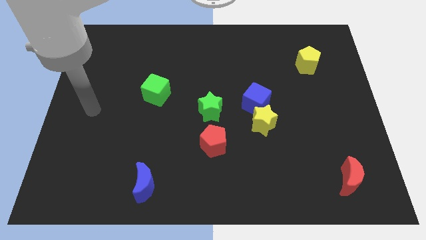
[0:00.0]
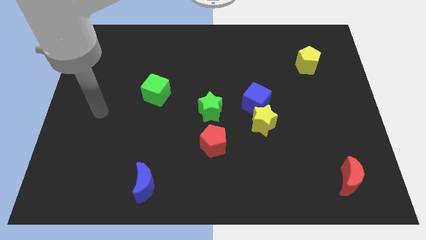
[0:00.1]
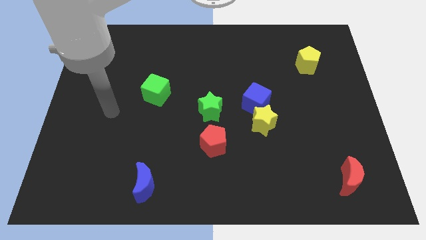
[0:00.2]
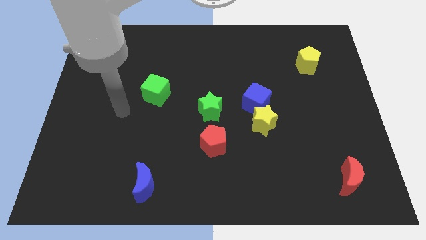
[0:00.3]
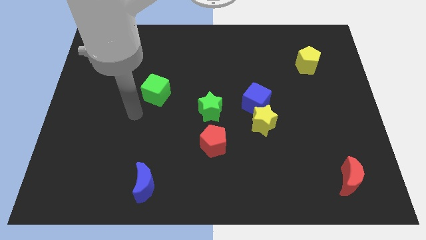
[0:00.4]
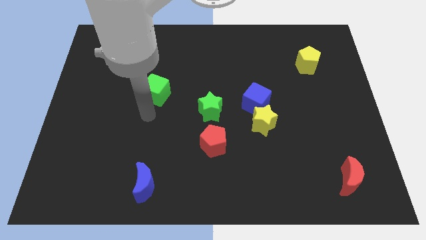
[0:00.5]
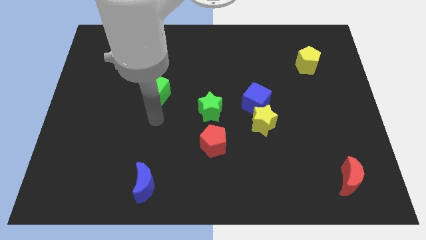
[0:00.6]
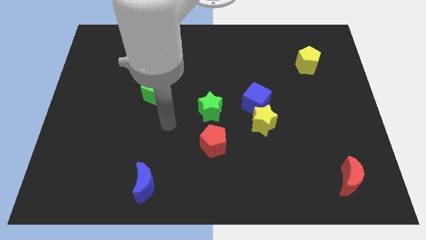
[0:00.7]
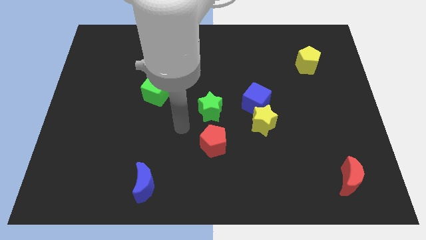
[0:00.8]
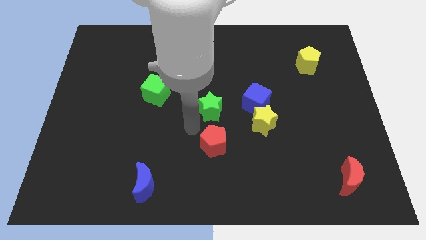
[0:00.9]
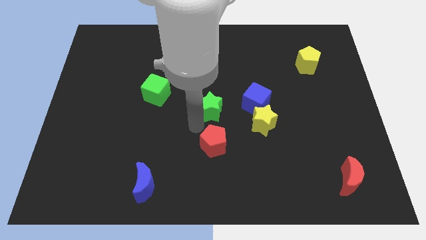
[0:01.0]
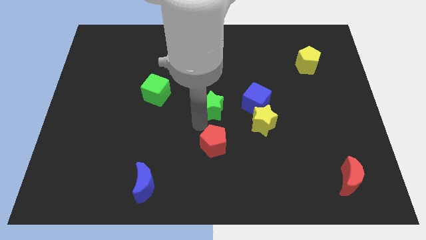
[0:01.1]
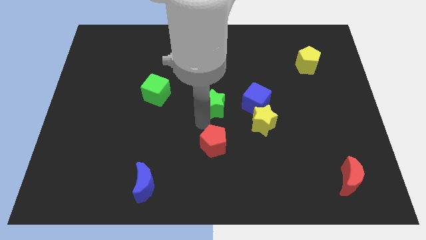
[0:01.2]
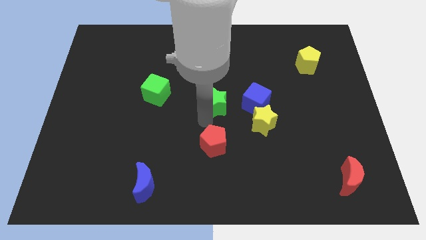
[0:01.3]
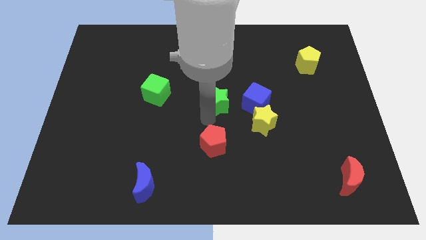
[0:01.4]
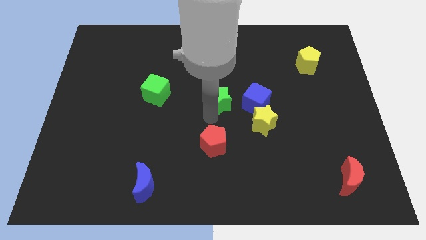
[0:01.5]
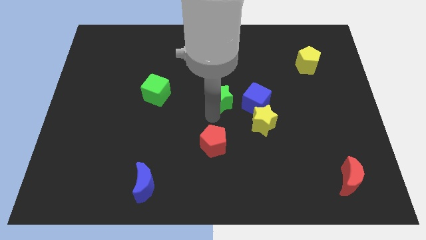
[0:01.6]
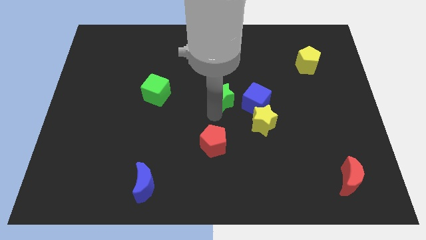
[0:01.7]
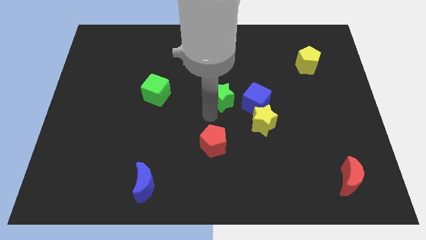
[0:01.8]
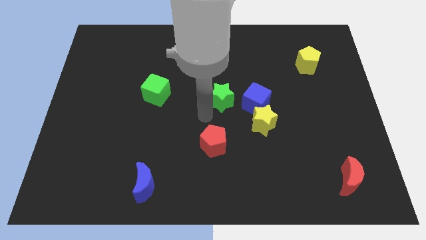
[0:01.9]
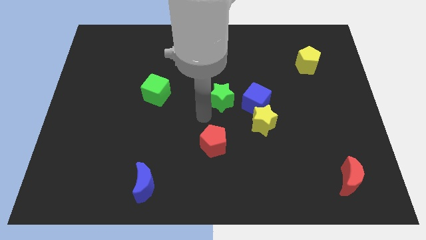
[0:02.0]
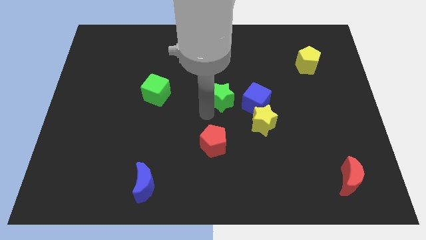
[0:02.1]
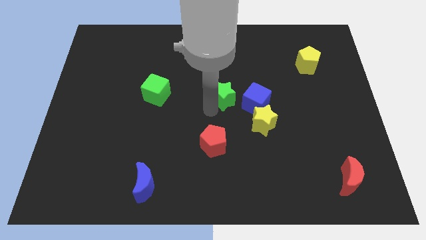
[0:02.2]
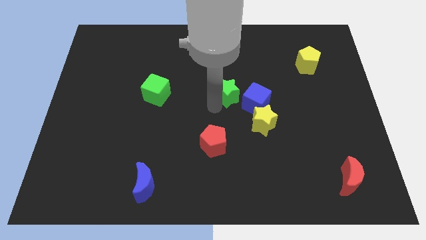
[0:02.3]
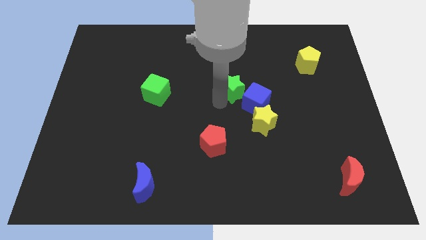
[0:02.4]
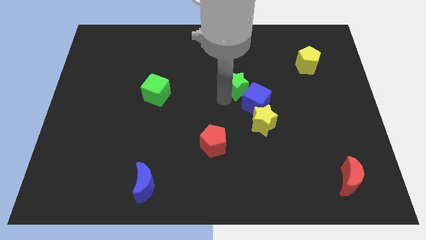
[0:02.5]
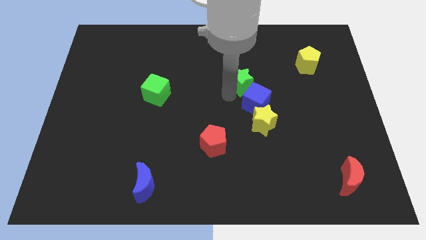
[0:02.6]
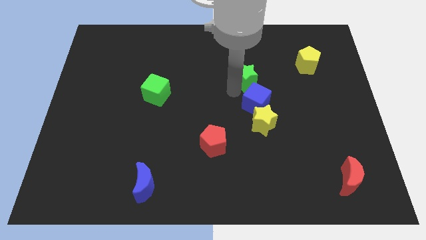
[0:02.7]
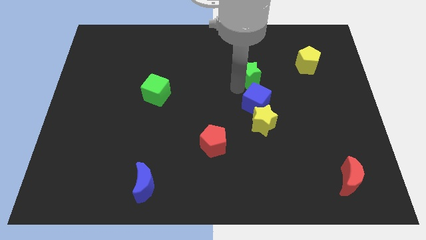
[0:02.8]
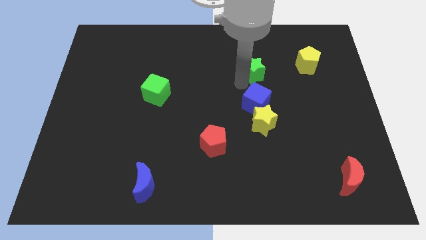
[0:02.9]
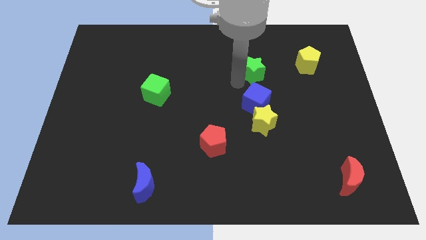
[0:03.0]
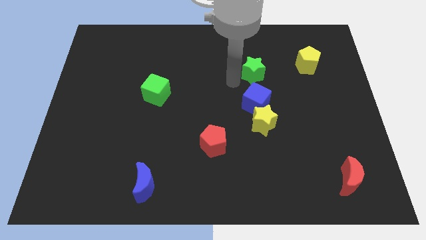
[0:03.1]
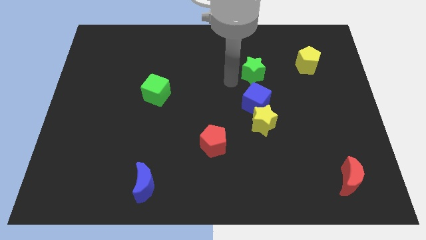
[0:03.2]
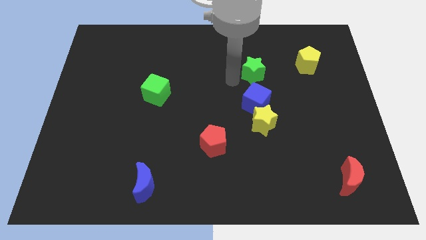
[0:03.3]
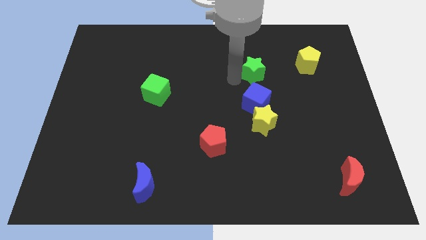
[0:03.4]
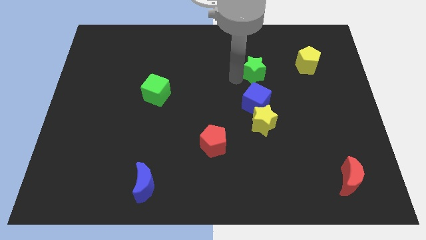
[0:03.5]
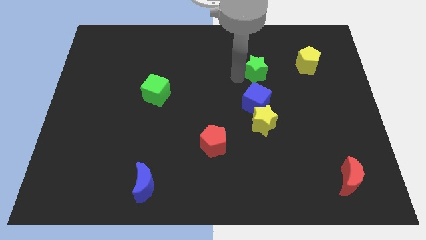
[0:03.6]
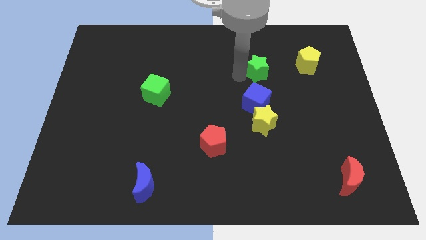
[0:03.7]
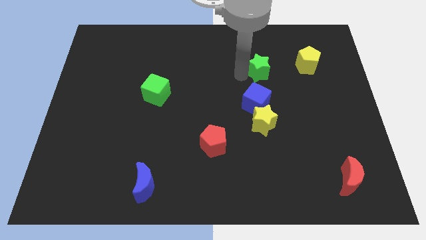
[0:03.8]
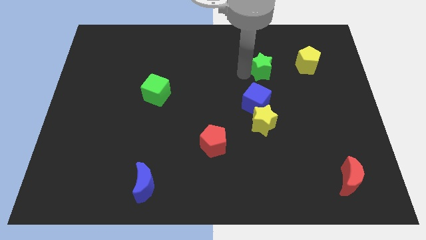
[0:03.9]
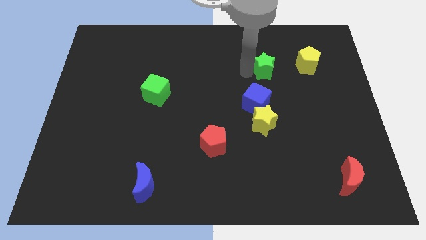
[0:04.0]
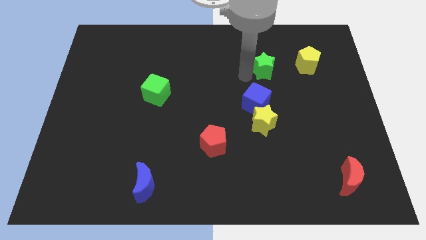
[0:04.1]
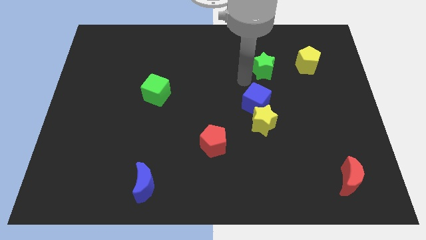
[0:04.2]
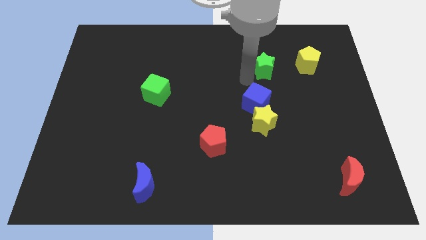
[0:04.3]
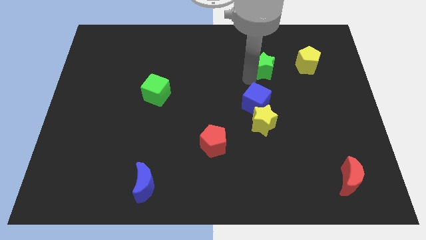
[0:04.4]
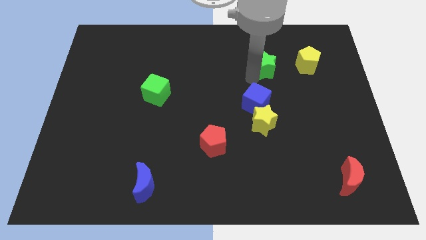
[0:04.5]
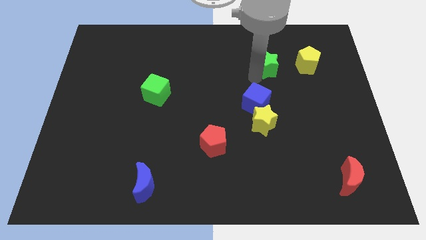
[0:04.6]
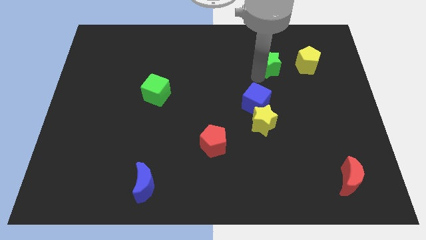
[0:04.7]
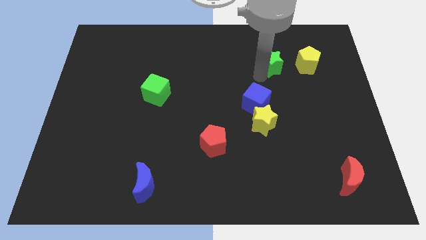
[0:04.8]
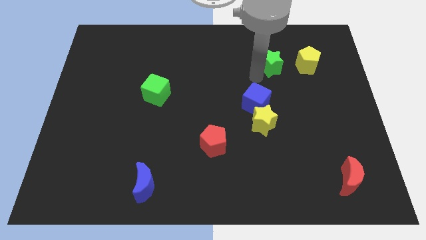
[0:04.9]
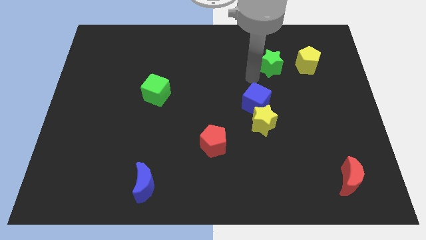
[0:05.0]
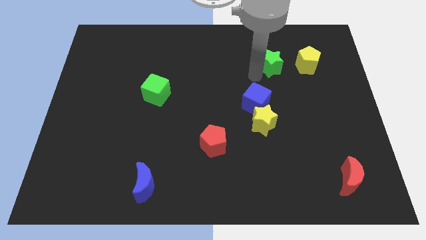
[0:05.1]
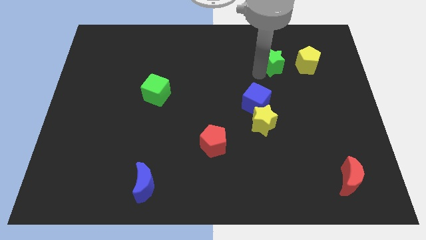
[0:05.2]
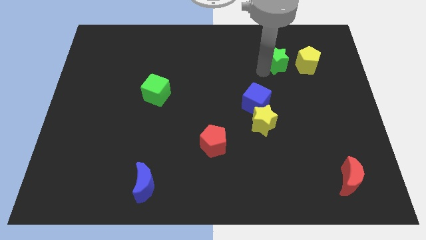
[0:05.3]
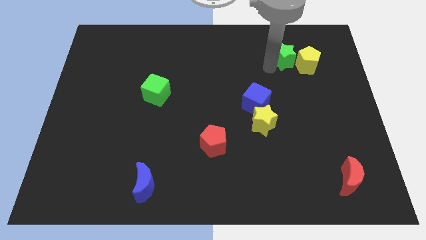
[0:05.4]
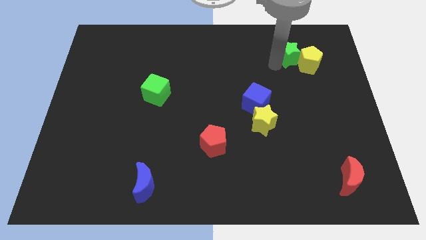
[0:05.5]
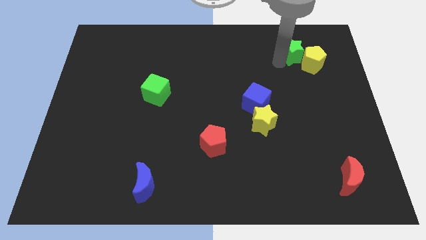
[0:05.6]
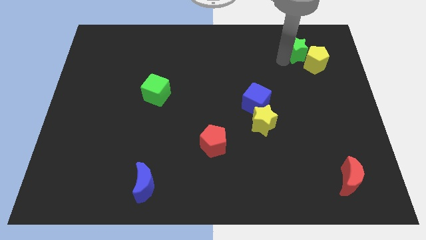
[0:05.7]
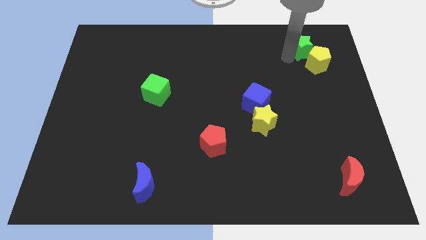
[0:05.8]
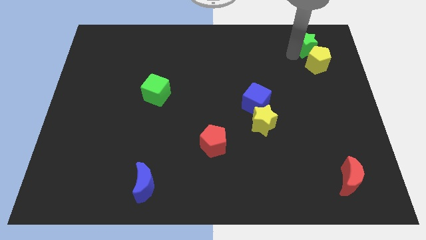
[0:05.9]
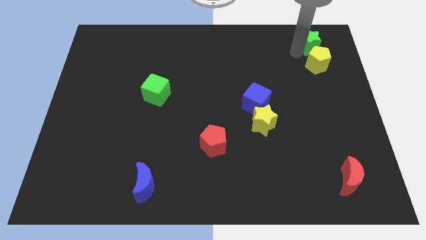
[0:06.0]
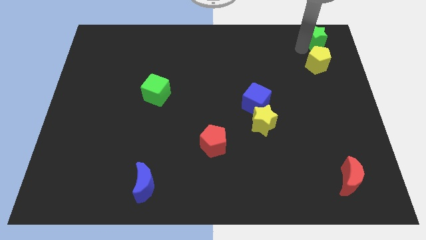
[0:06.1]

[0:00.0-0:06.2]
put the green star to the top right corner
